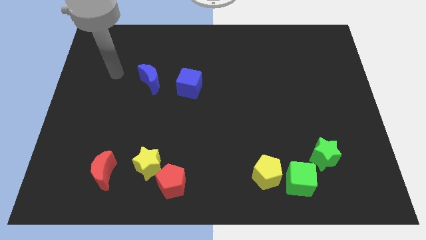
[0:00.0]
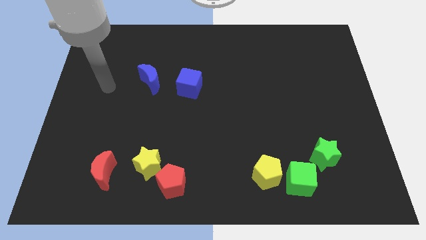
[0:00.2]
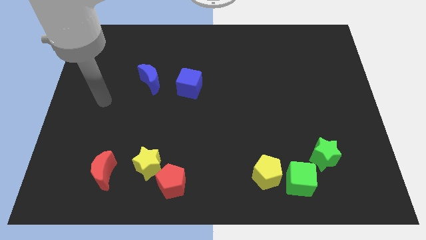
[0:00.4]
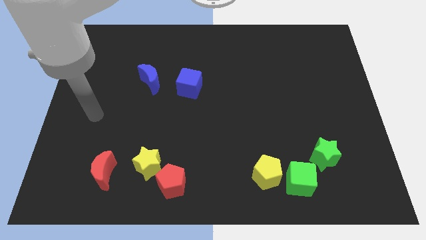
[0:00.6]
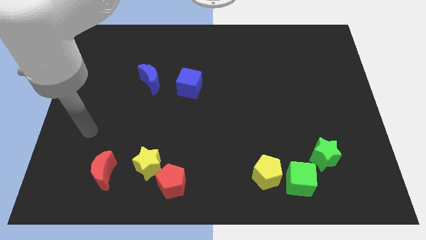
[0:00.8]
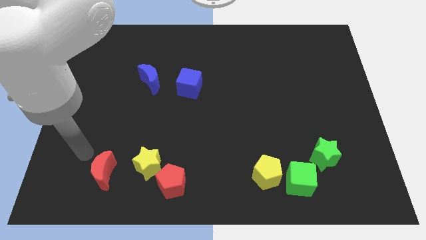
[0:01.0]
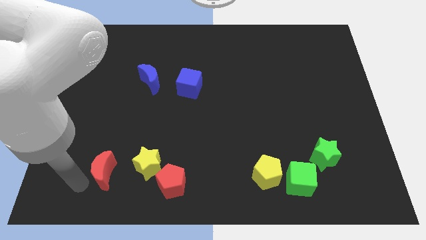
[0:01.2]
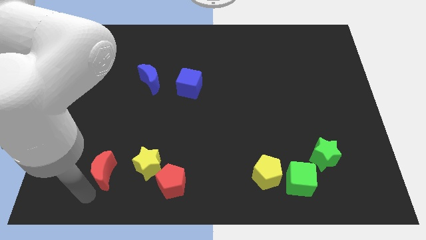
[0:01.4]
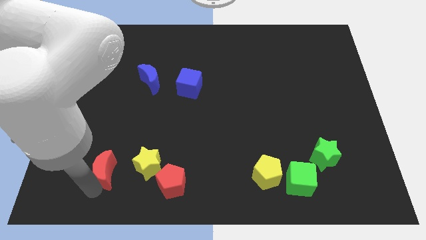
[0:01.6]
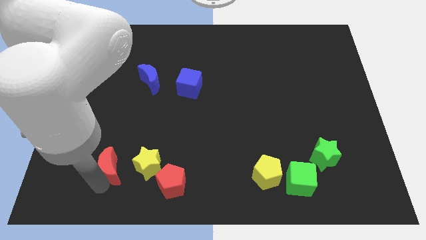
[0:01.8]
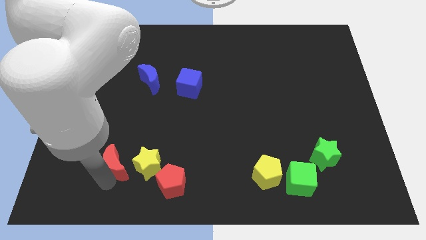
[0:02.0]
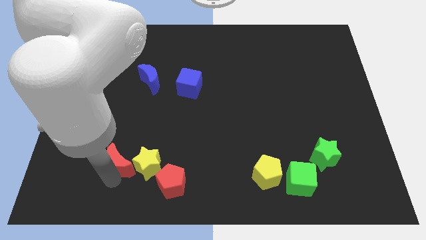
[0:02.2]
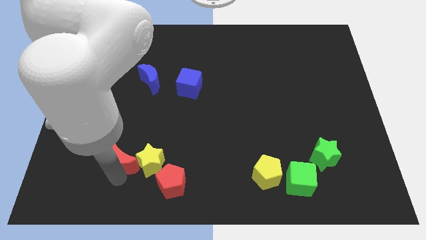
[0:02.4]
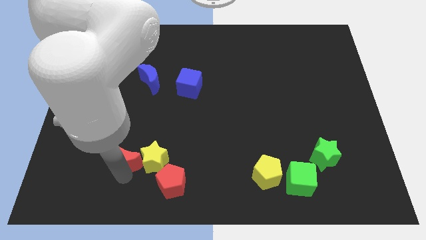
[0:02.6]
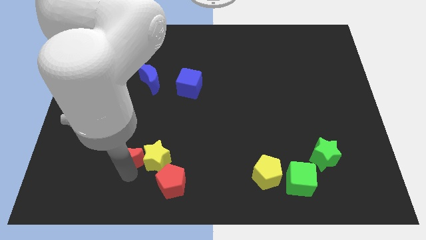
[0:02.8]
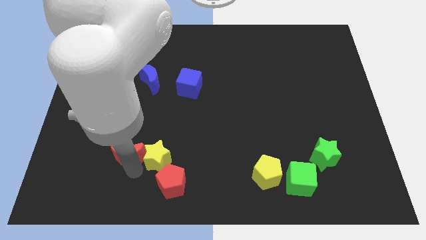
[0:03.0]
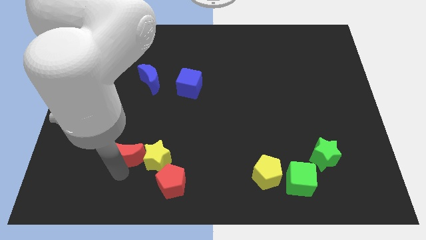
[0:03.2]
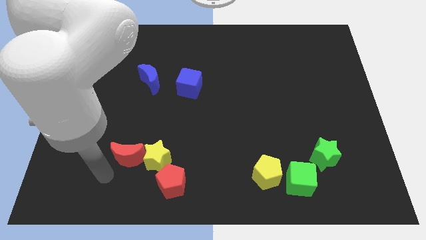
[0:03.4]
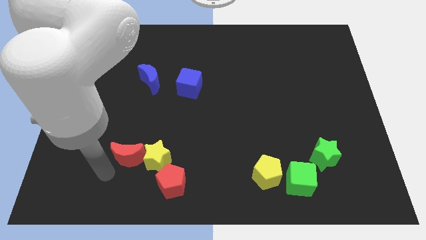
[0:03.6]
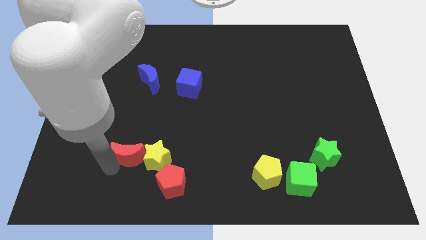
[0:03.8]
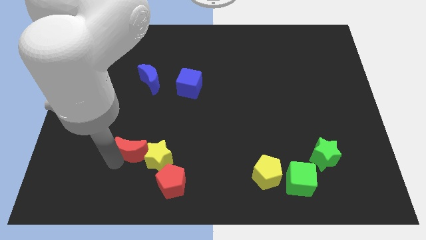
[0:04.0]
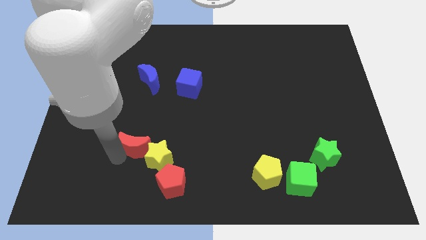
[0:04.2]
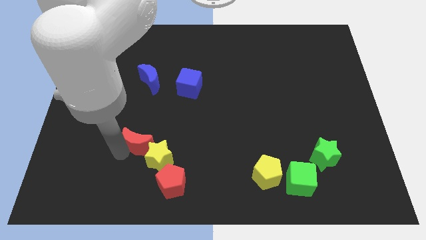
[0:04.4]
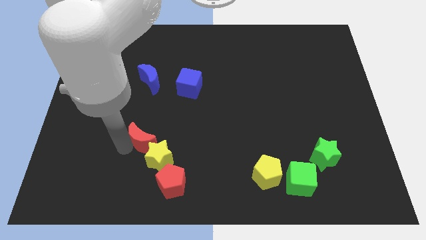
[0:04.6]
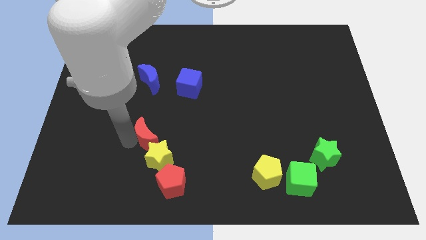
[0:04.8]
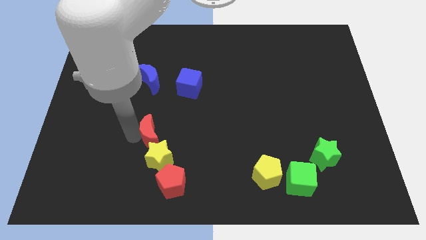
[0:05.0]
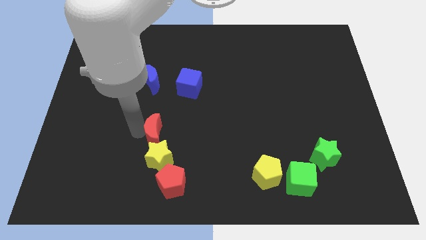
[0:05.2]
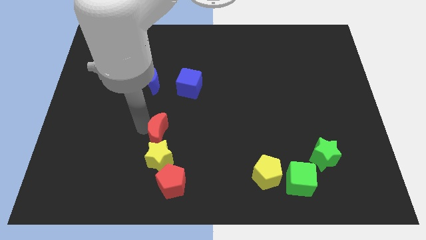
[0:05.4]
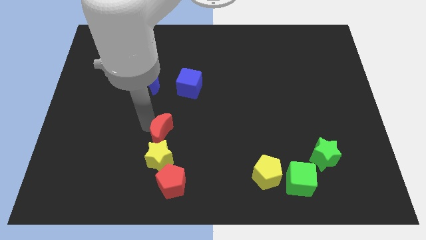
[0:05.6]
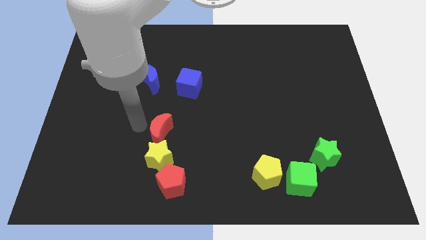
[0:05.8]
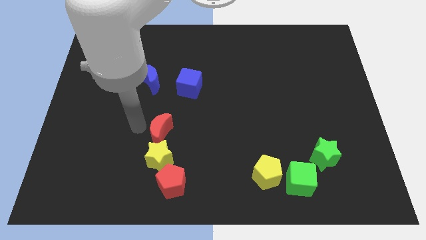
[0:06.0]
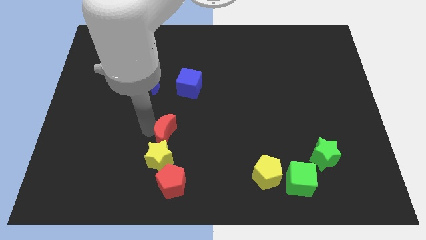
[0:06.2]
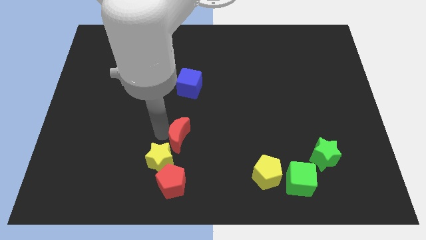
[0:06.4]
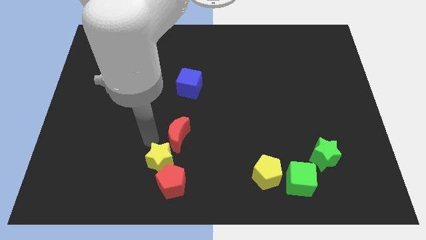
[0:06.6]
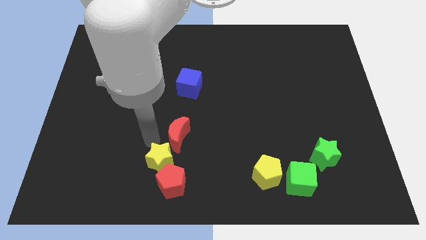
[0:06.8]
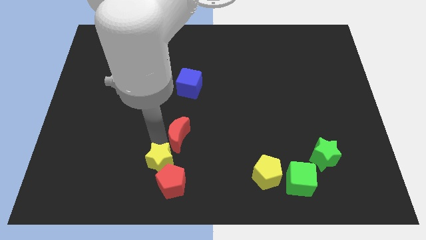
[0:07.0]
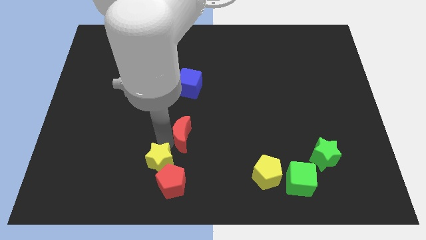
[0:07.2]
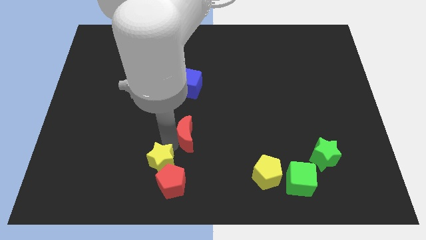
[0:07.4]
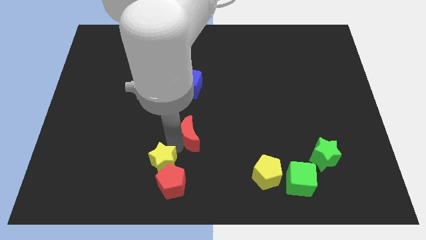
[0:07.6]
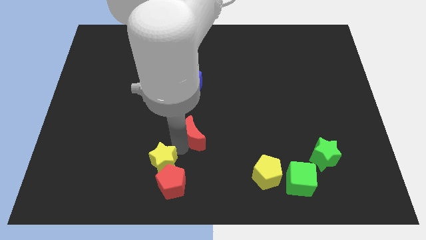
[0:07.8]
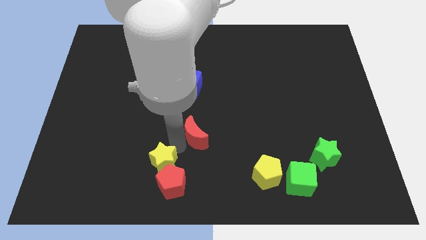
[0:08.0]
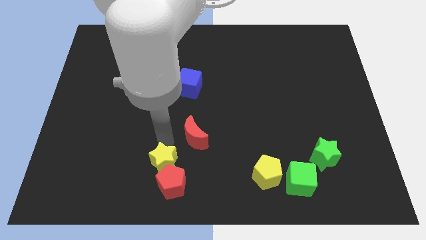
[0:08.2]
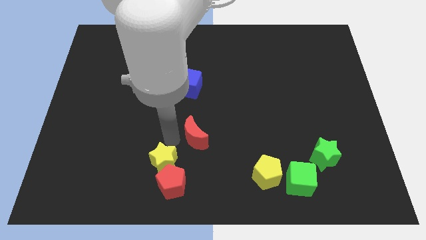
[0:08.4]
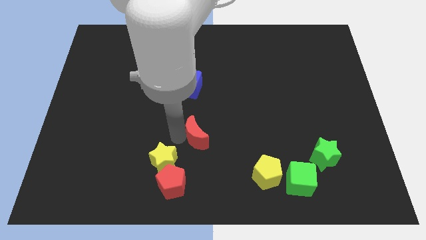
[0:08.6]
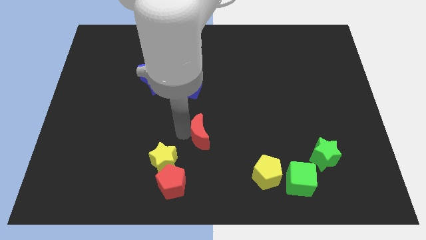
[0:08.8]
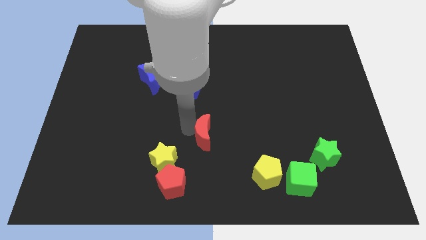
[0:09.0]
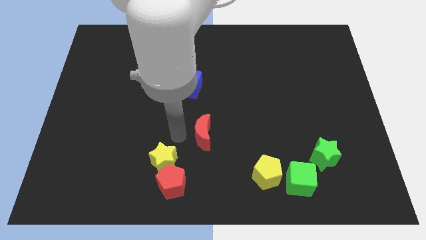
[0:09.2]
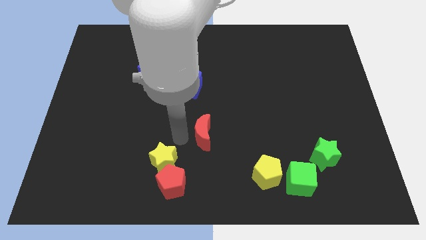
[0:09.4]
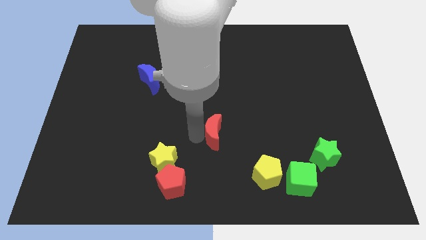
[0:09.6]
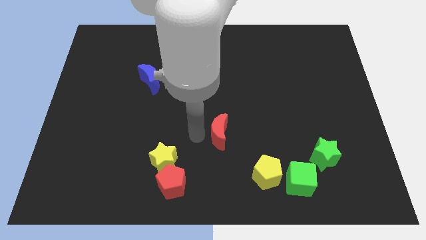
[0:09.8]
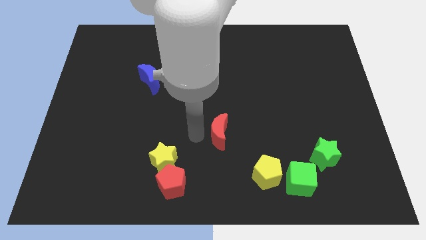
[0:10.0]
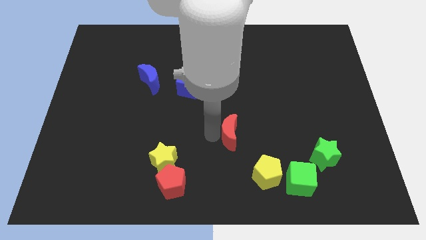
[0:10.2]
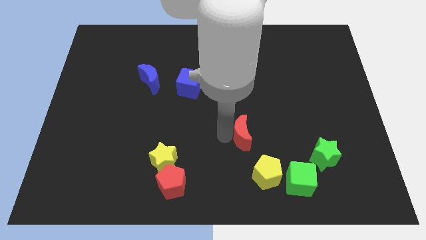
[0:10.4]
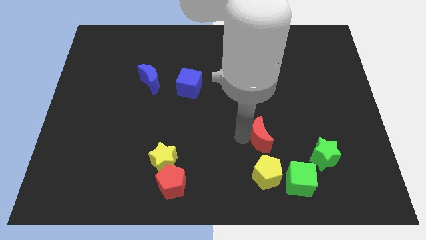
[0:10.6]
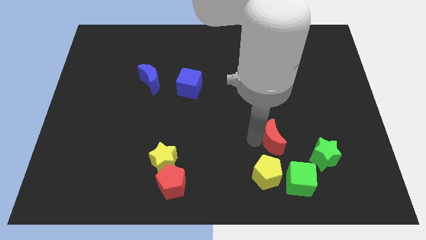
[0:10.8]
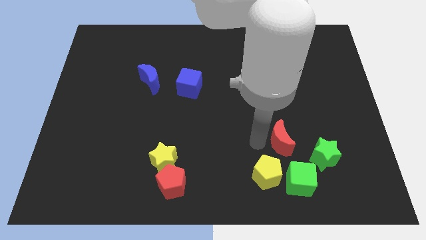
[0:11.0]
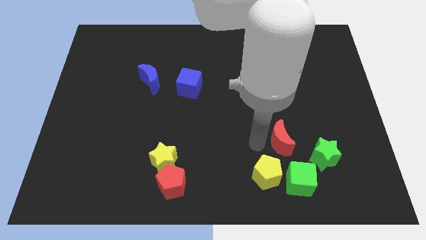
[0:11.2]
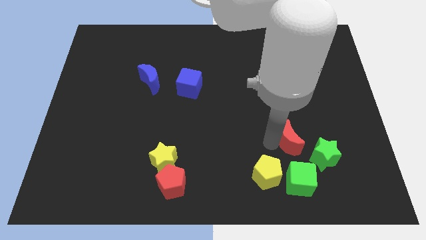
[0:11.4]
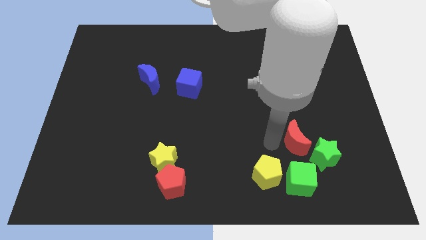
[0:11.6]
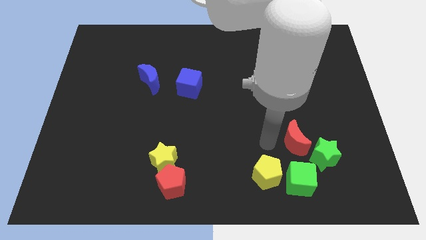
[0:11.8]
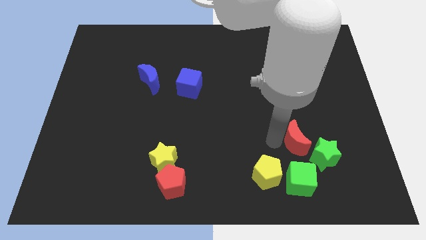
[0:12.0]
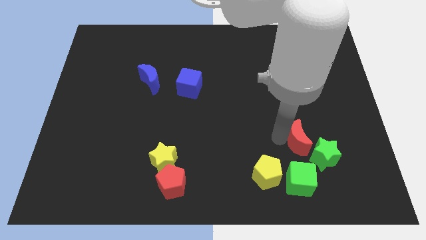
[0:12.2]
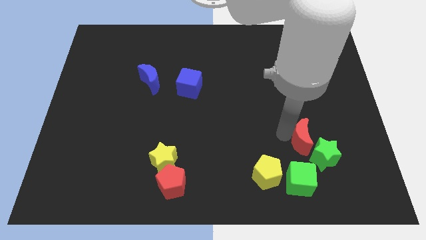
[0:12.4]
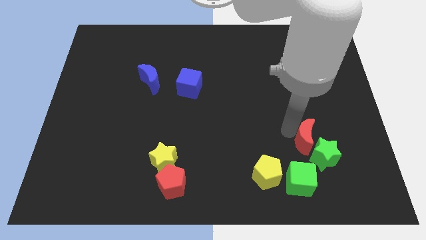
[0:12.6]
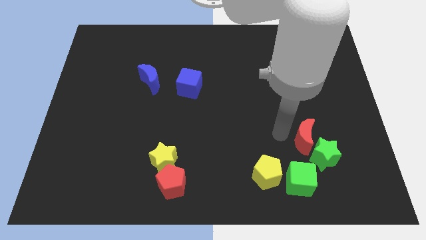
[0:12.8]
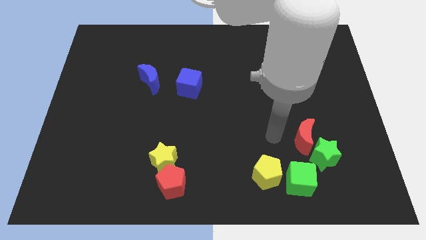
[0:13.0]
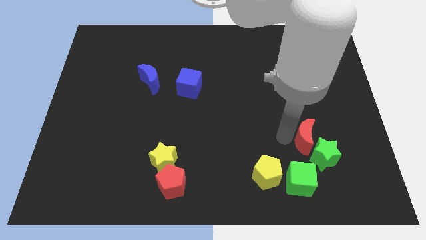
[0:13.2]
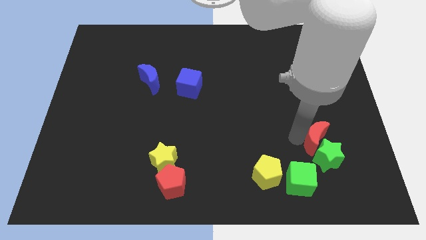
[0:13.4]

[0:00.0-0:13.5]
move the red moon diagonally up and to the right of the green star

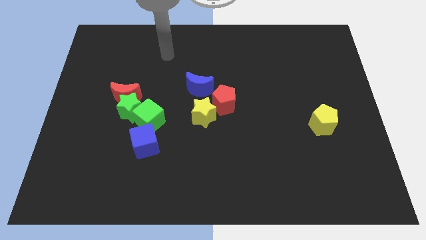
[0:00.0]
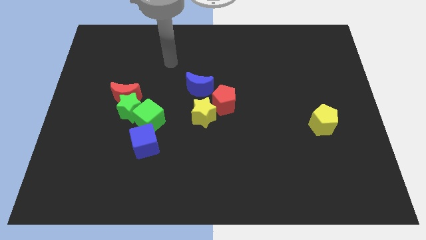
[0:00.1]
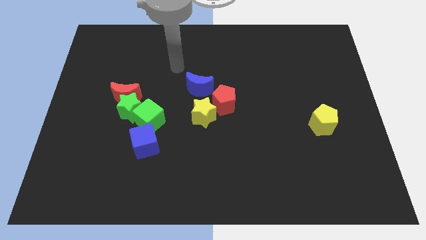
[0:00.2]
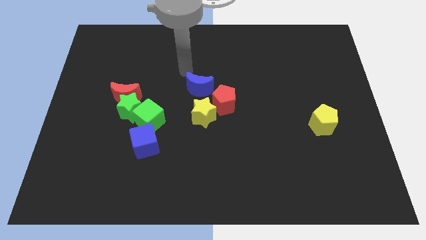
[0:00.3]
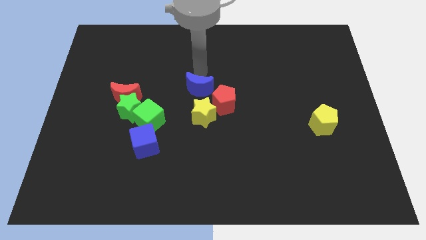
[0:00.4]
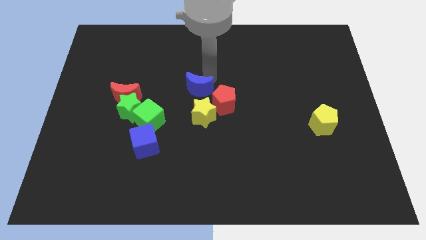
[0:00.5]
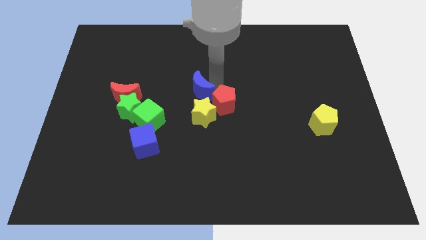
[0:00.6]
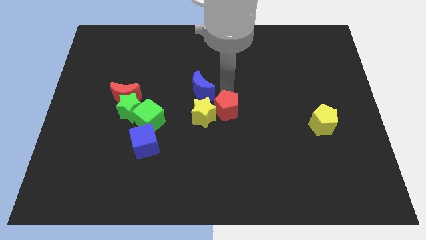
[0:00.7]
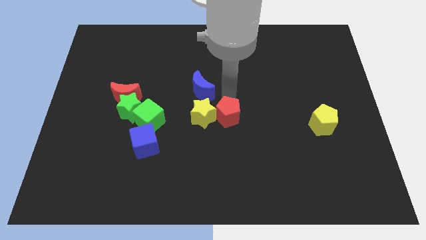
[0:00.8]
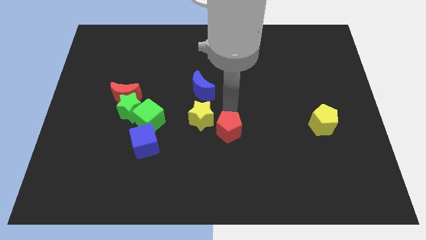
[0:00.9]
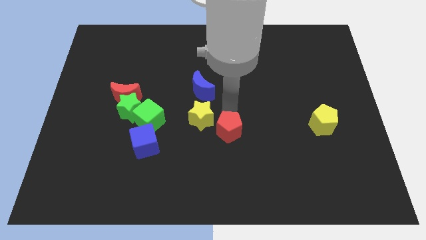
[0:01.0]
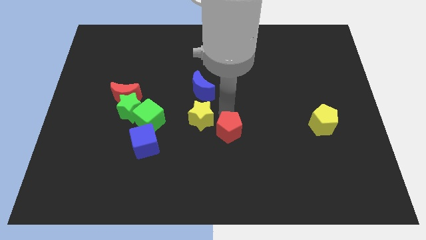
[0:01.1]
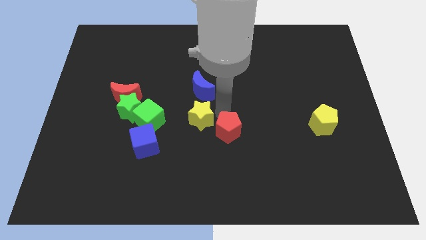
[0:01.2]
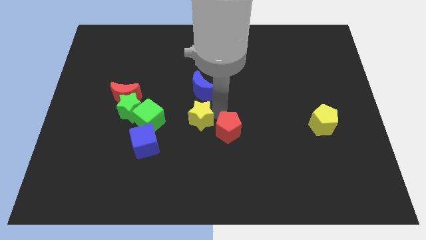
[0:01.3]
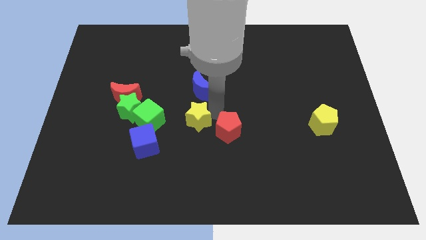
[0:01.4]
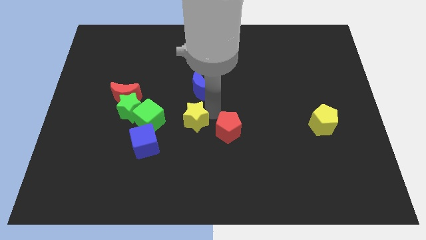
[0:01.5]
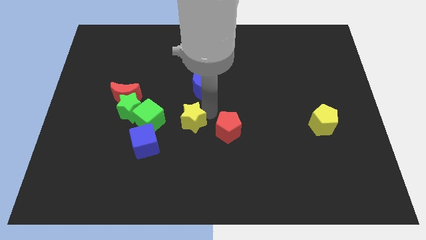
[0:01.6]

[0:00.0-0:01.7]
move the yellow star to the top right side of the blue cube
